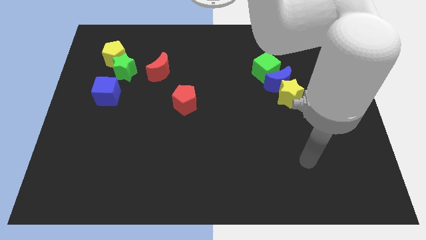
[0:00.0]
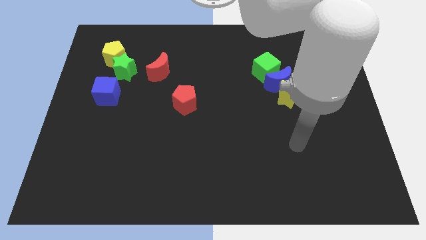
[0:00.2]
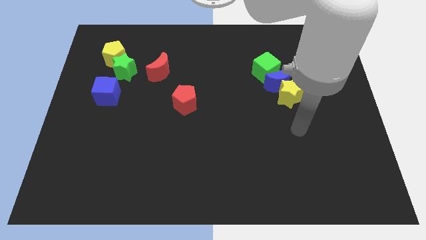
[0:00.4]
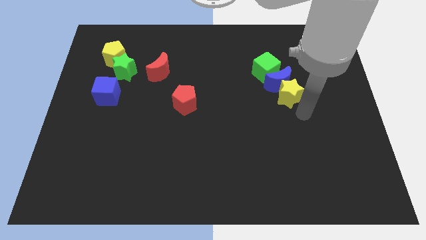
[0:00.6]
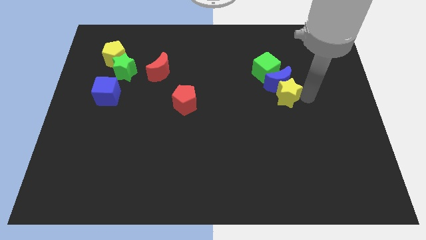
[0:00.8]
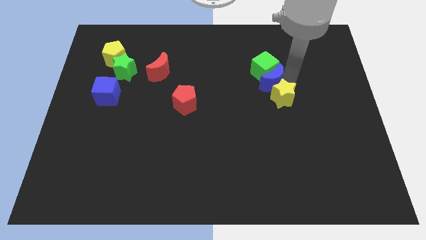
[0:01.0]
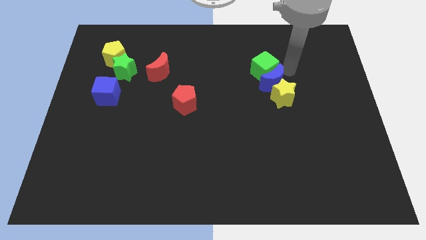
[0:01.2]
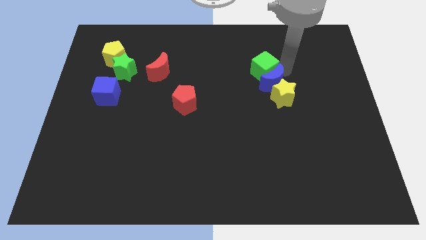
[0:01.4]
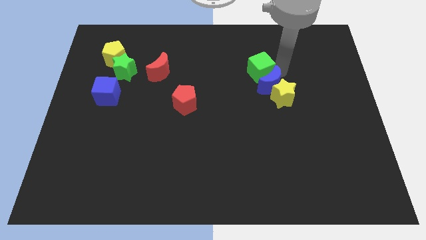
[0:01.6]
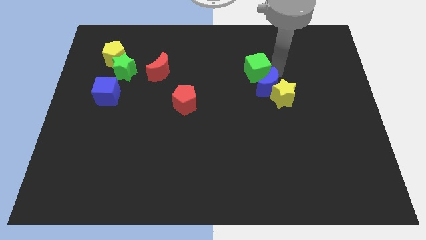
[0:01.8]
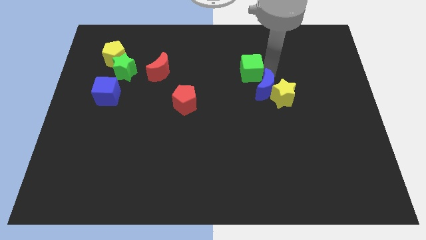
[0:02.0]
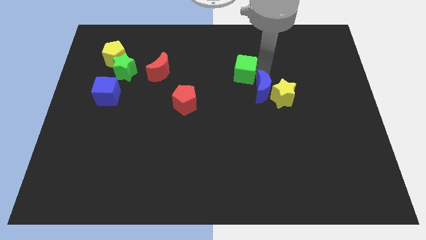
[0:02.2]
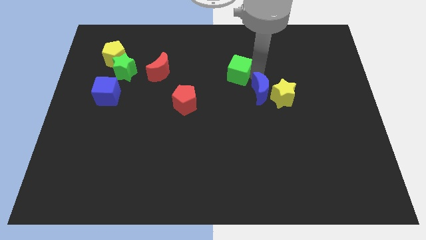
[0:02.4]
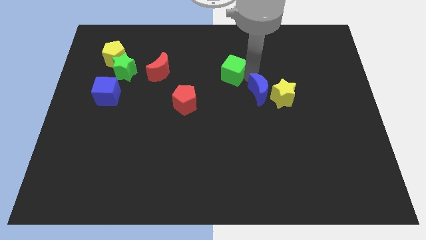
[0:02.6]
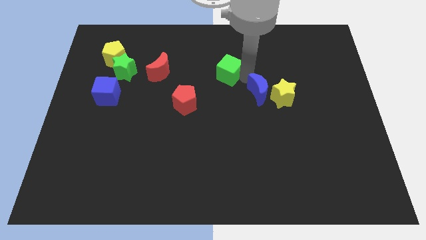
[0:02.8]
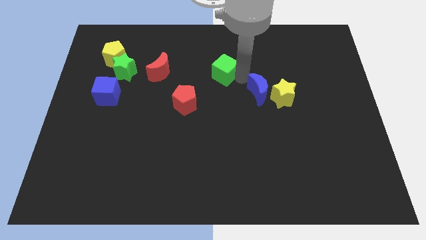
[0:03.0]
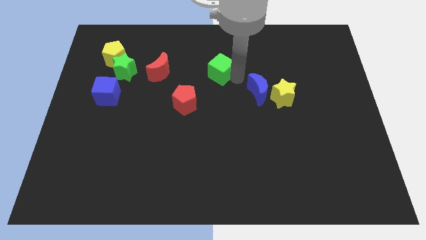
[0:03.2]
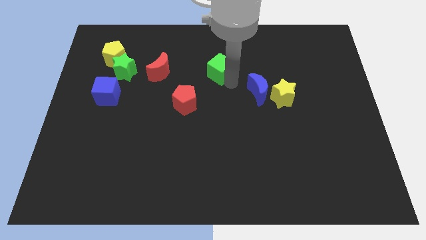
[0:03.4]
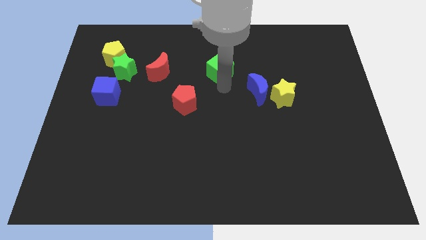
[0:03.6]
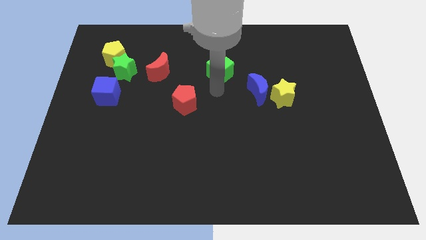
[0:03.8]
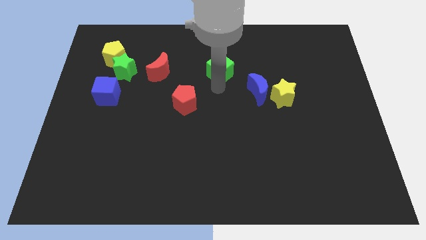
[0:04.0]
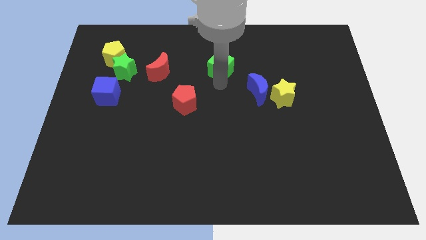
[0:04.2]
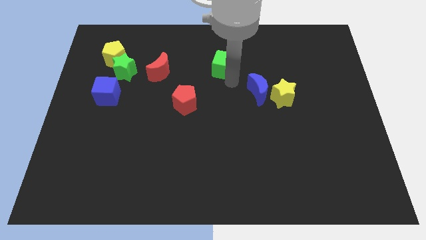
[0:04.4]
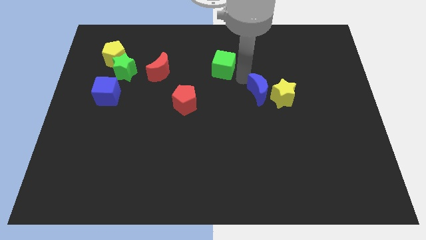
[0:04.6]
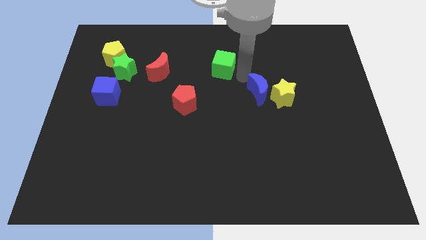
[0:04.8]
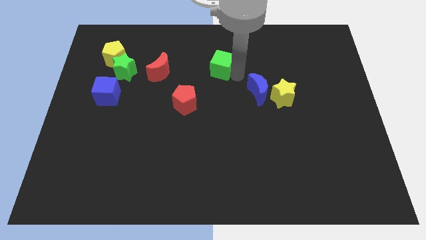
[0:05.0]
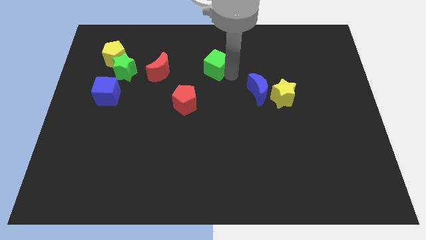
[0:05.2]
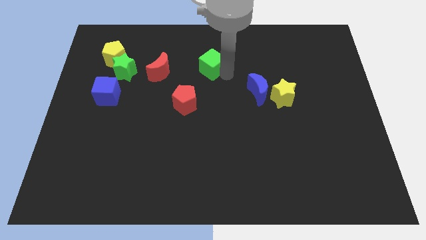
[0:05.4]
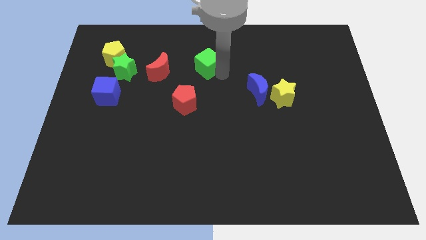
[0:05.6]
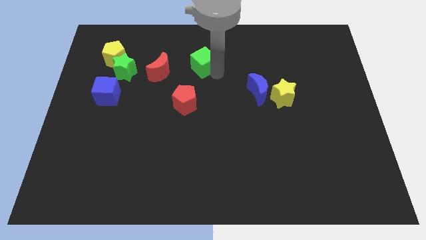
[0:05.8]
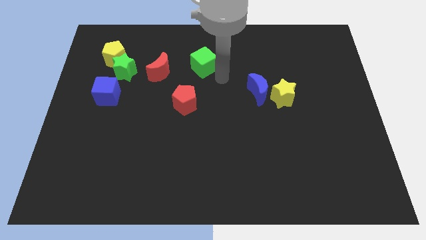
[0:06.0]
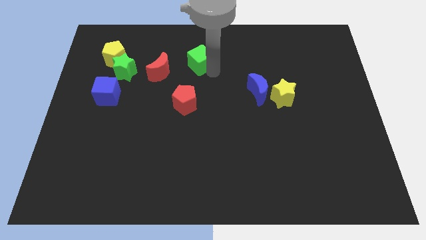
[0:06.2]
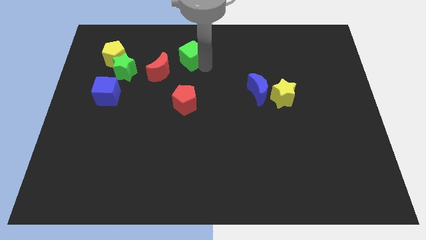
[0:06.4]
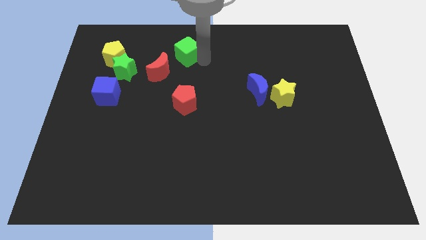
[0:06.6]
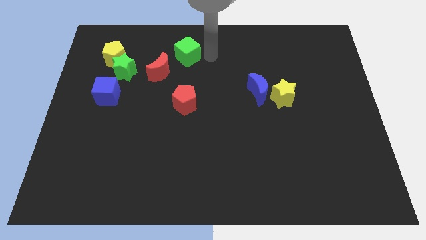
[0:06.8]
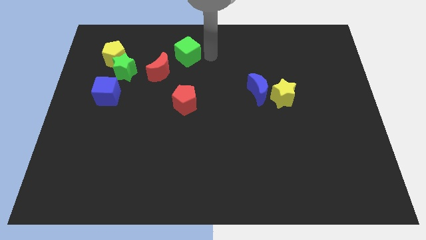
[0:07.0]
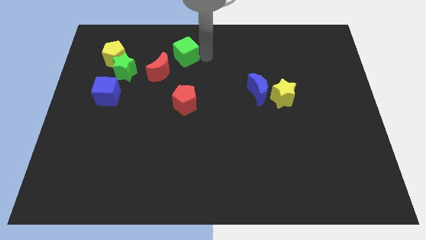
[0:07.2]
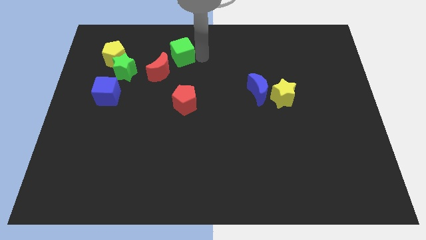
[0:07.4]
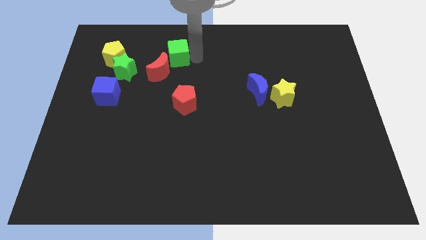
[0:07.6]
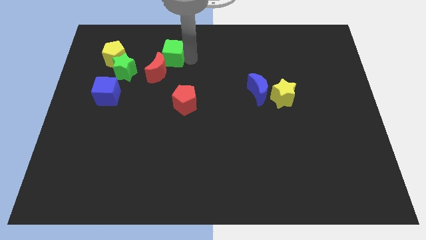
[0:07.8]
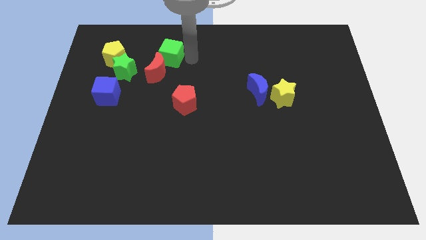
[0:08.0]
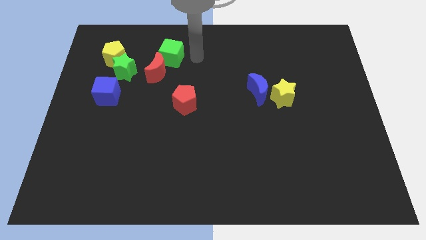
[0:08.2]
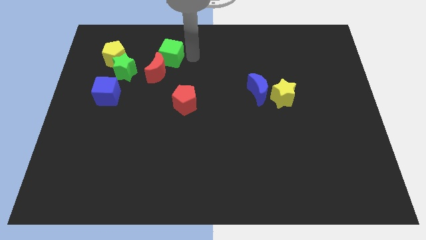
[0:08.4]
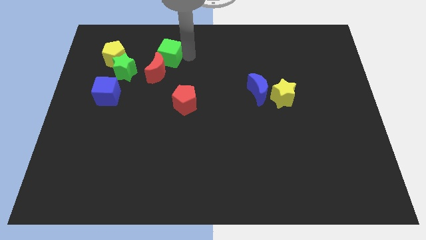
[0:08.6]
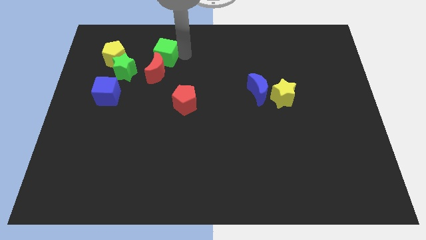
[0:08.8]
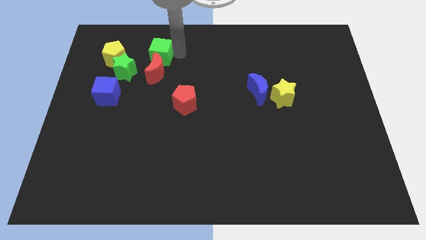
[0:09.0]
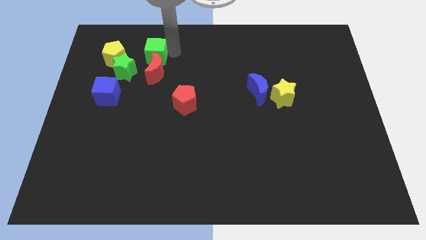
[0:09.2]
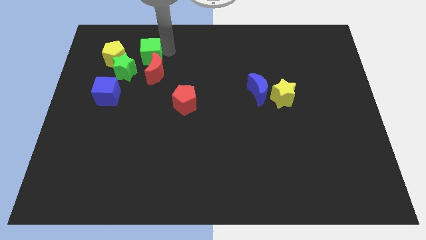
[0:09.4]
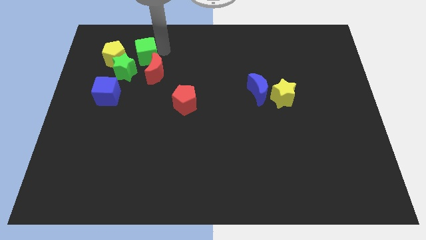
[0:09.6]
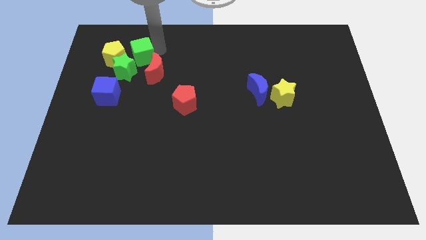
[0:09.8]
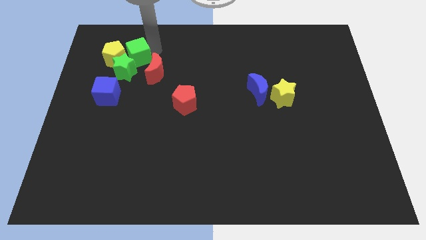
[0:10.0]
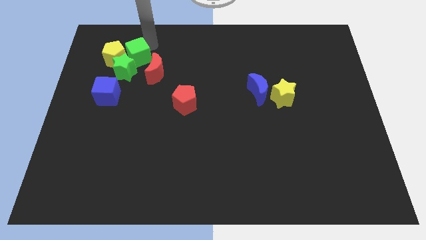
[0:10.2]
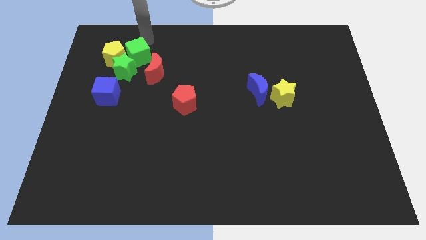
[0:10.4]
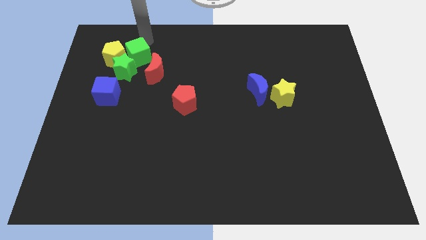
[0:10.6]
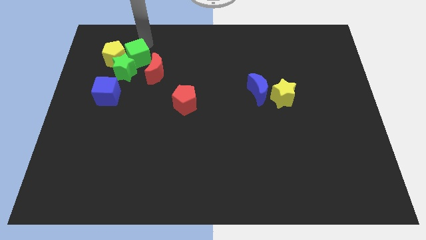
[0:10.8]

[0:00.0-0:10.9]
move the green cube close to the green star

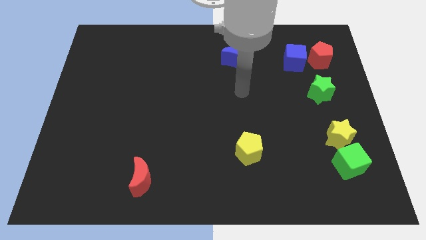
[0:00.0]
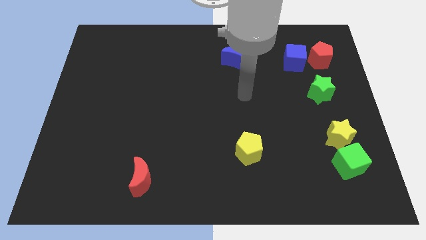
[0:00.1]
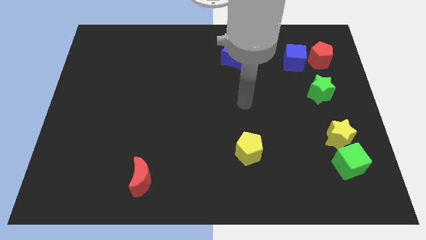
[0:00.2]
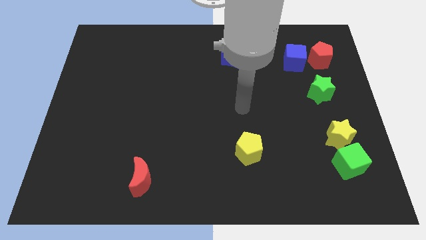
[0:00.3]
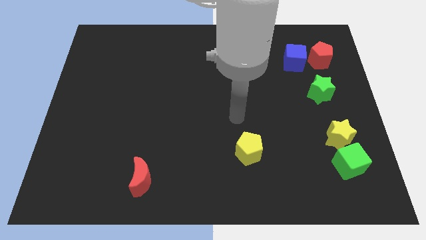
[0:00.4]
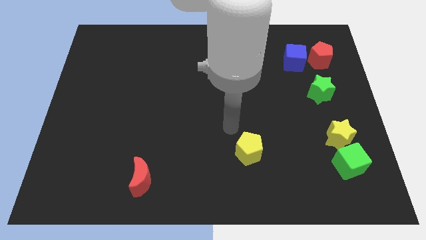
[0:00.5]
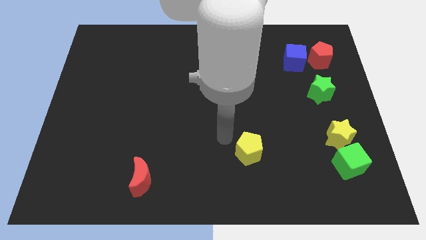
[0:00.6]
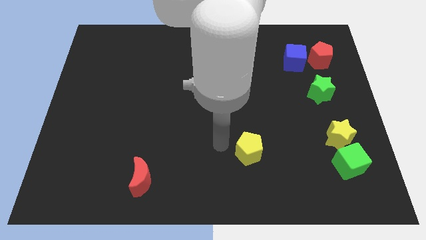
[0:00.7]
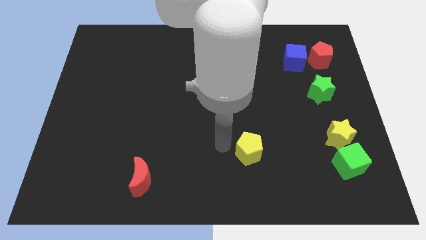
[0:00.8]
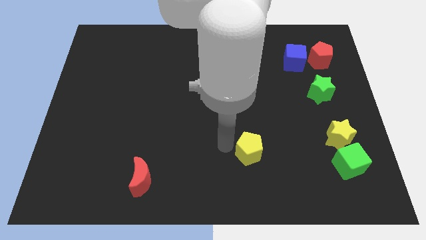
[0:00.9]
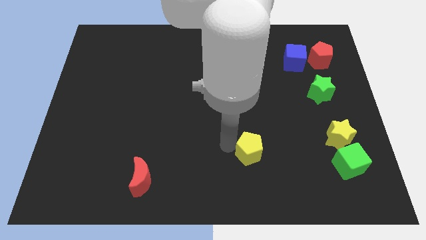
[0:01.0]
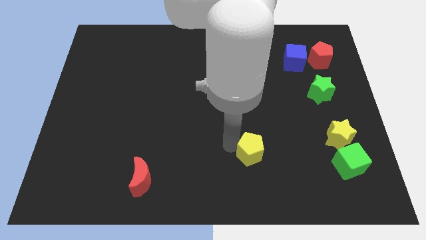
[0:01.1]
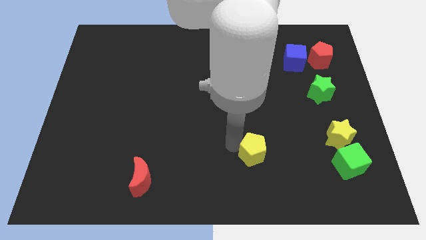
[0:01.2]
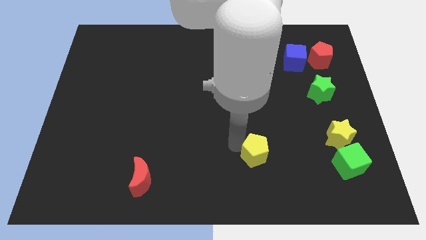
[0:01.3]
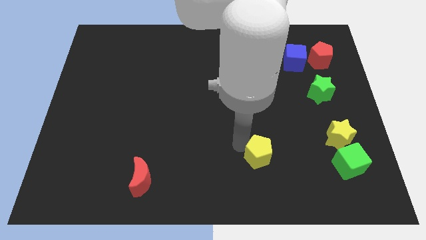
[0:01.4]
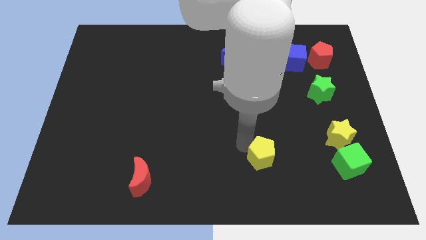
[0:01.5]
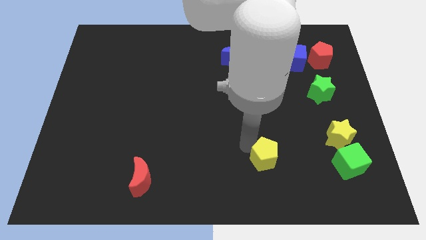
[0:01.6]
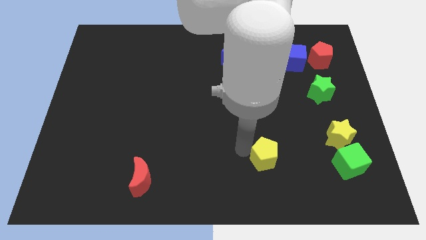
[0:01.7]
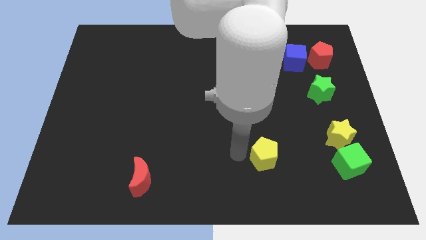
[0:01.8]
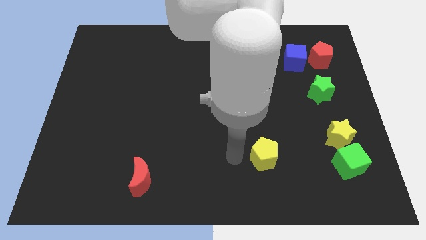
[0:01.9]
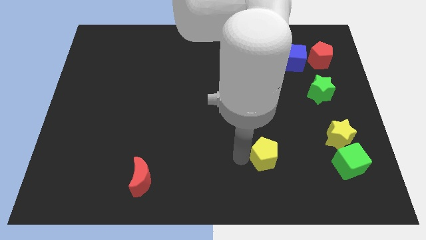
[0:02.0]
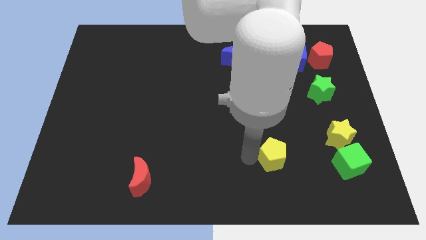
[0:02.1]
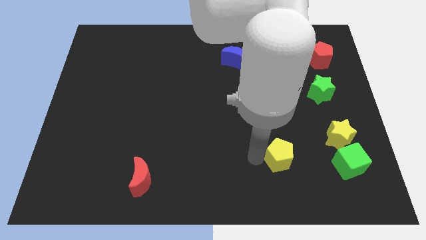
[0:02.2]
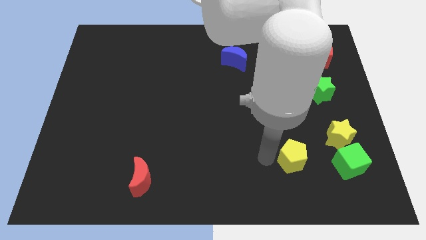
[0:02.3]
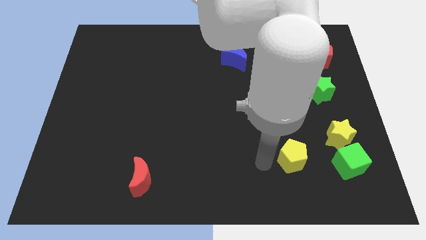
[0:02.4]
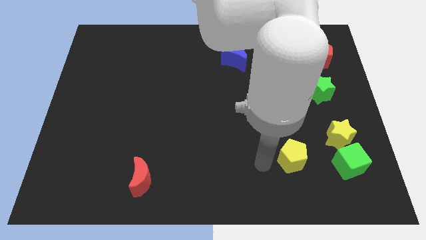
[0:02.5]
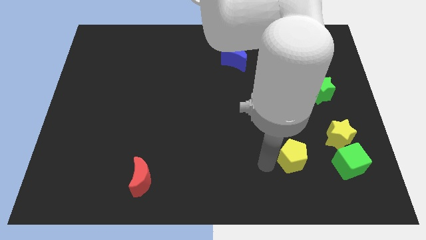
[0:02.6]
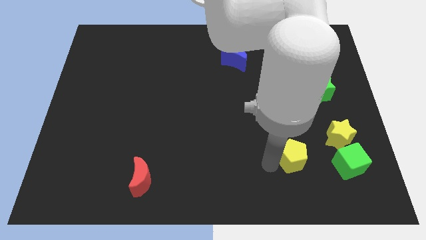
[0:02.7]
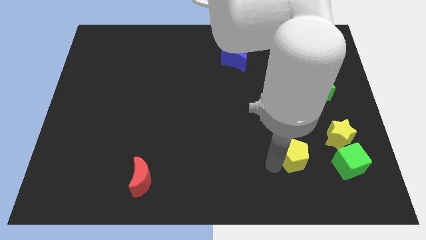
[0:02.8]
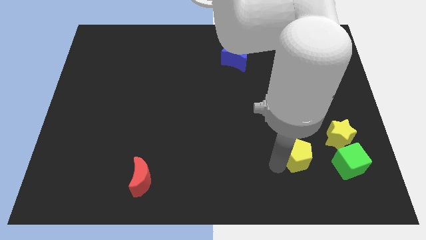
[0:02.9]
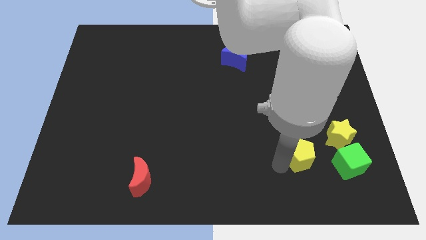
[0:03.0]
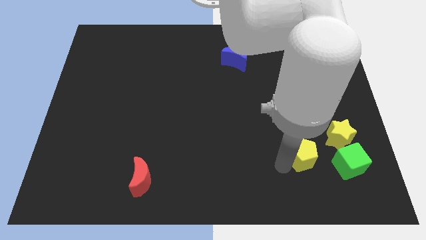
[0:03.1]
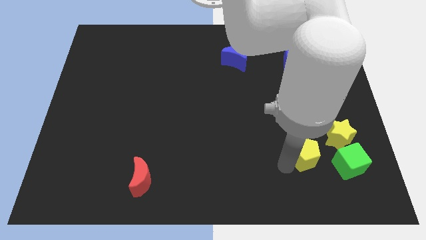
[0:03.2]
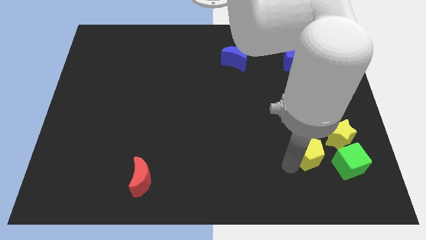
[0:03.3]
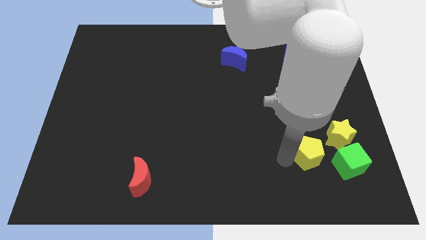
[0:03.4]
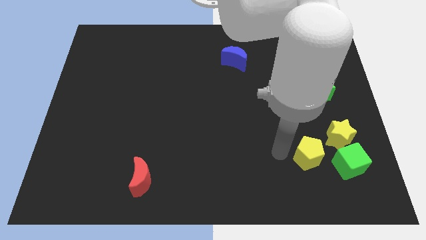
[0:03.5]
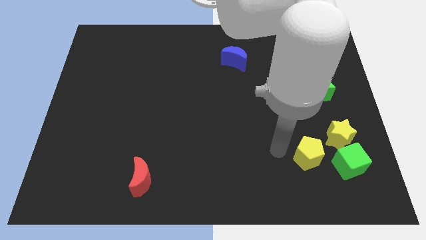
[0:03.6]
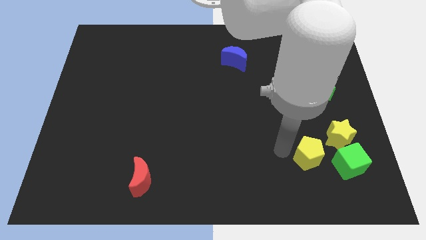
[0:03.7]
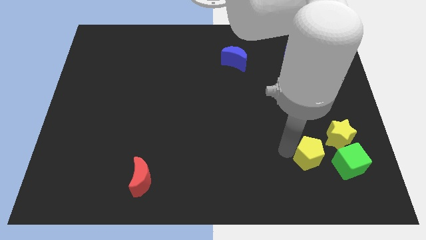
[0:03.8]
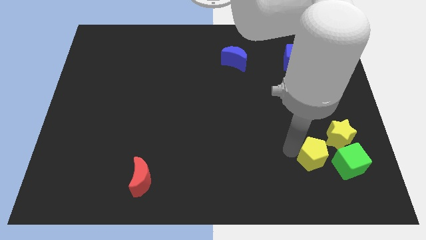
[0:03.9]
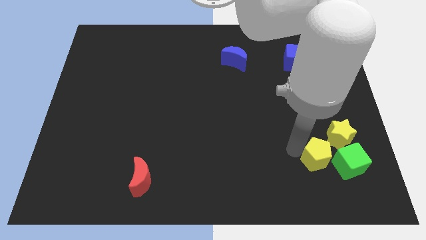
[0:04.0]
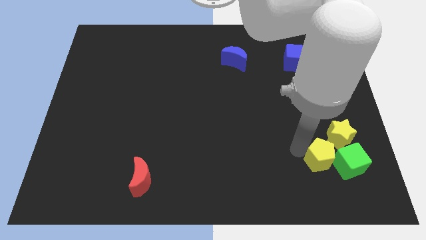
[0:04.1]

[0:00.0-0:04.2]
push the yellow pentagon to the green cube
